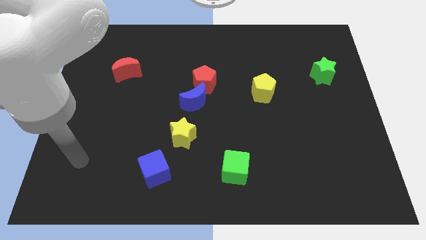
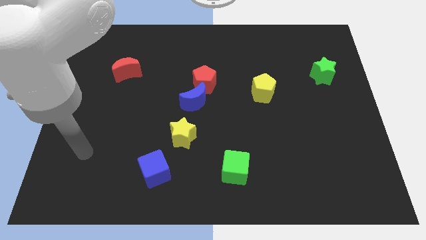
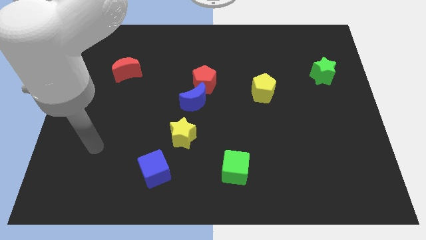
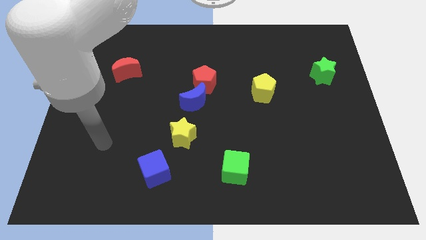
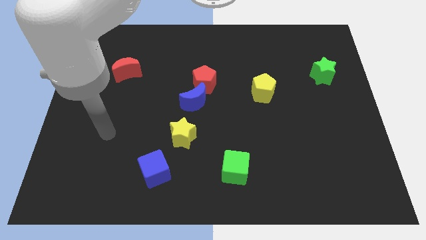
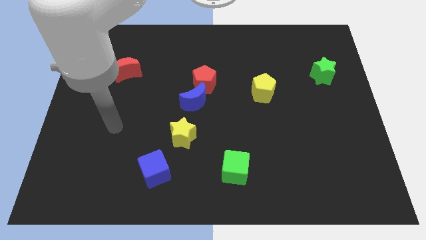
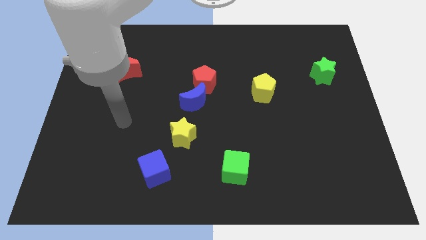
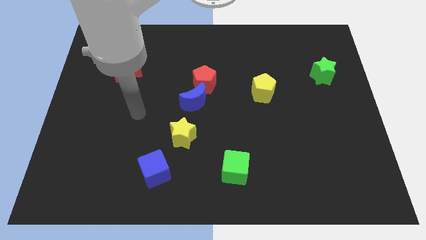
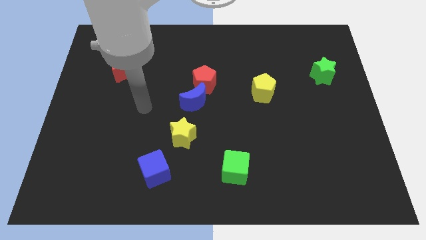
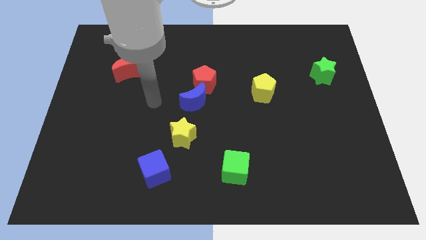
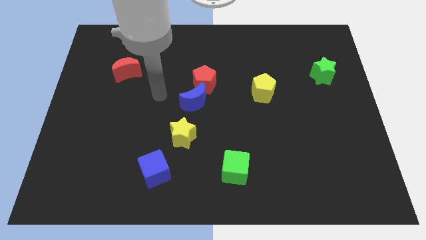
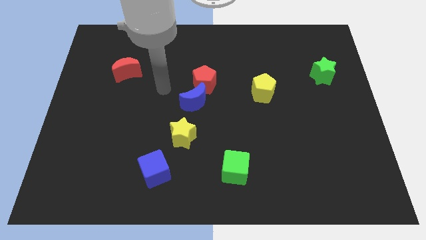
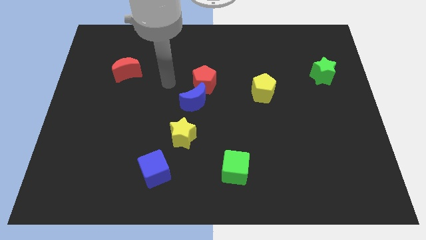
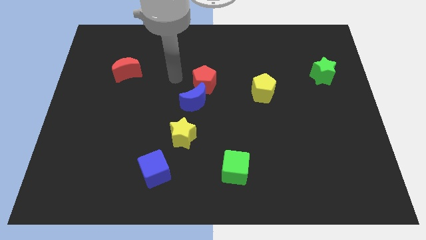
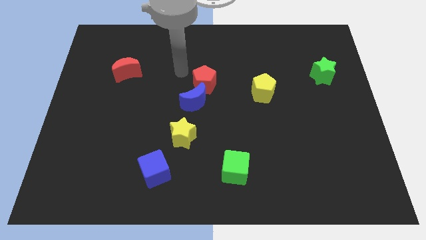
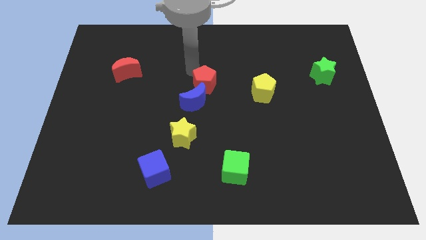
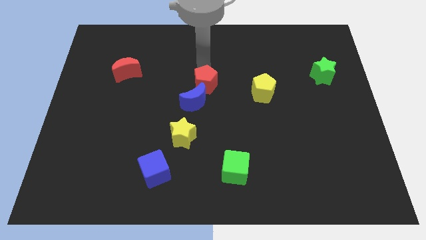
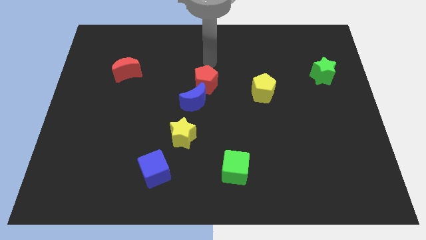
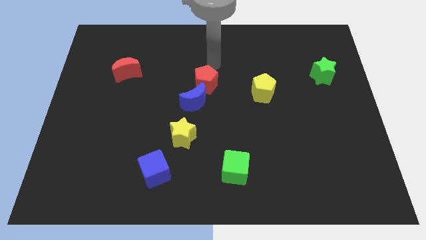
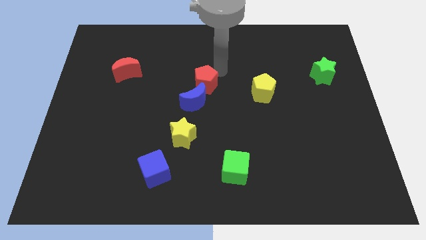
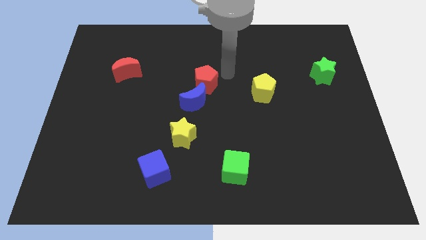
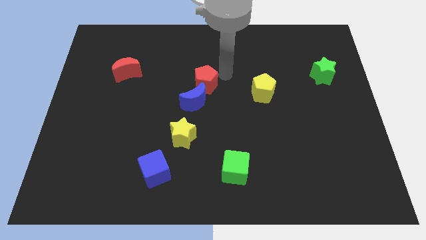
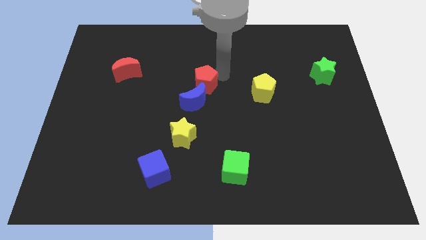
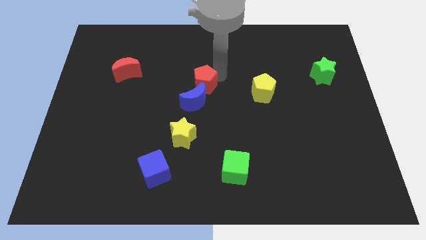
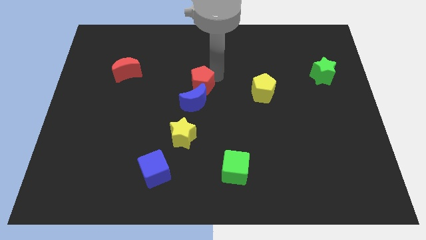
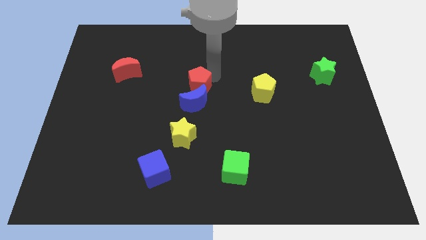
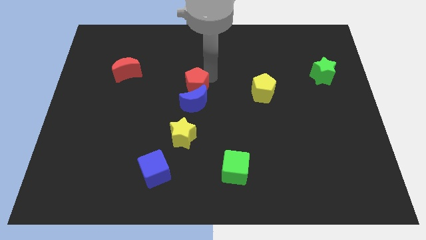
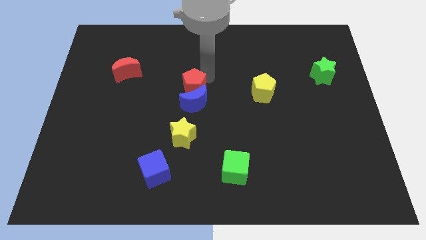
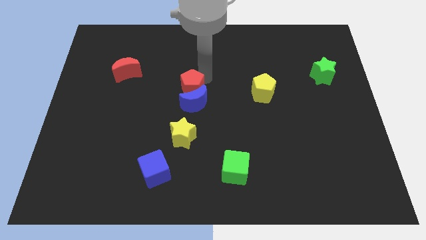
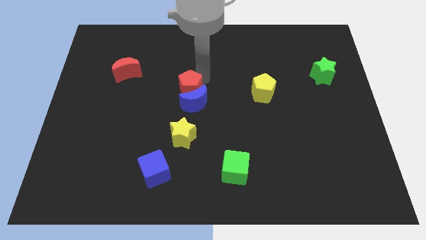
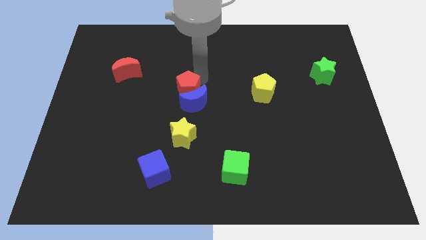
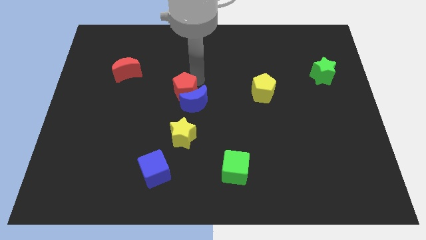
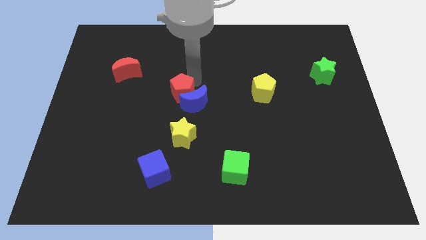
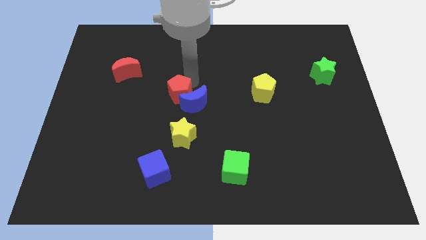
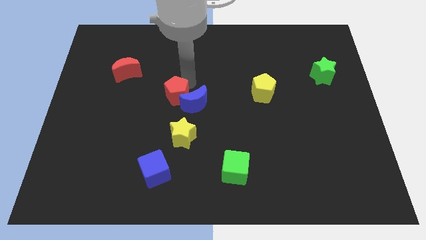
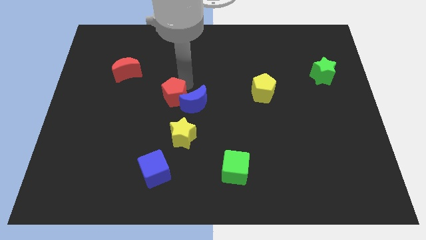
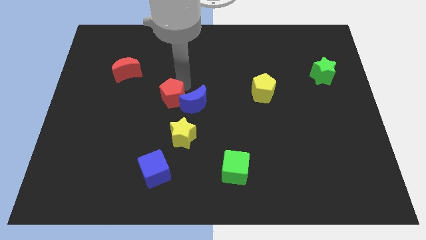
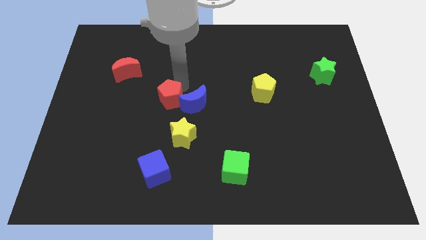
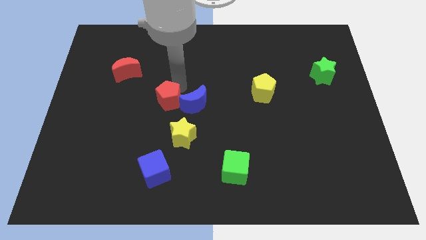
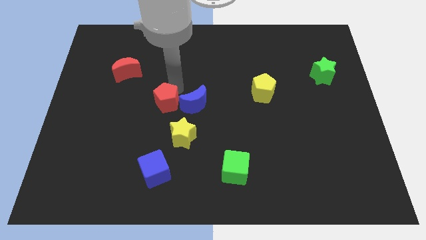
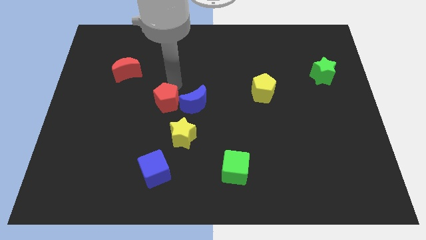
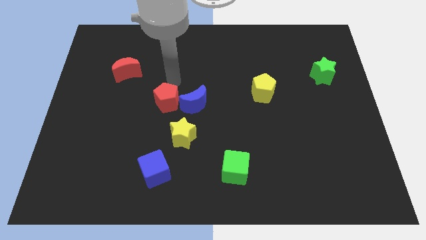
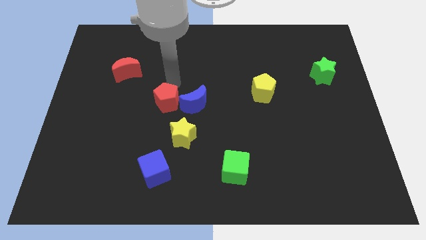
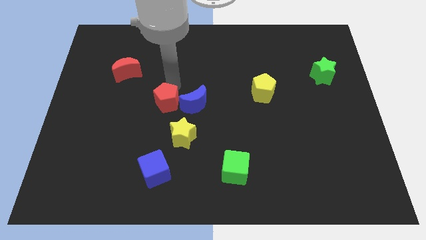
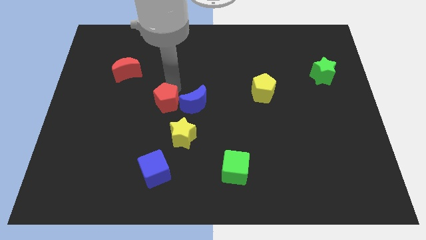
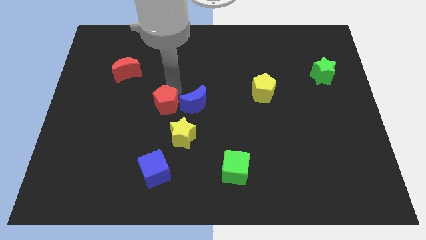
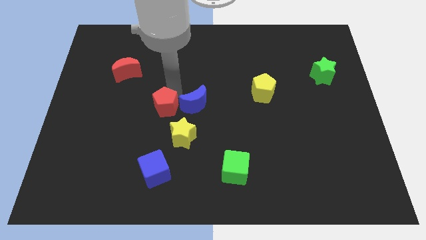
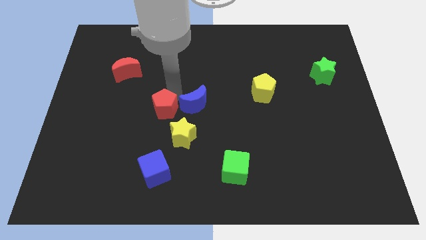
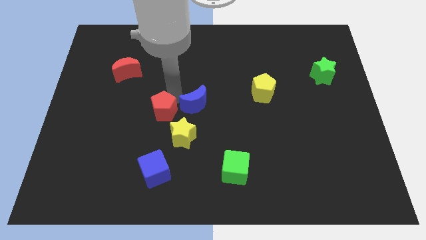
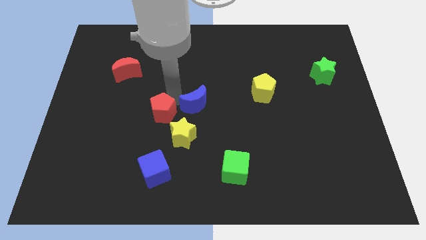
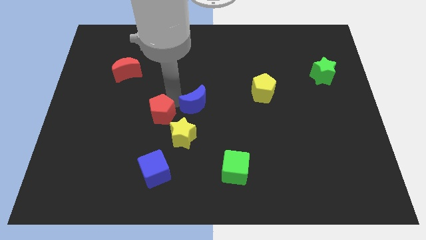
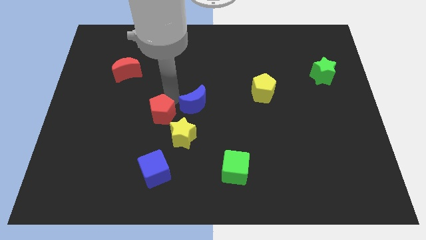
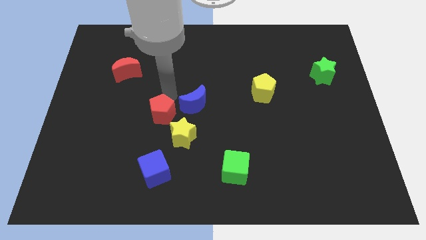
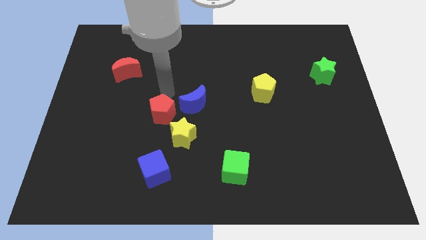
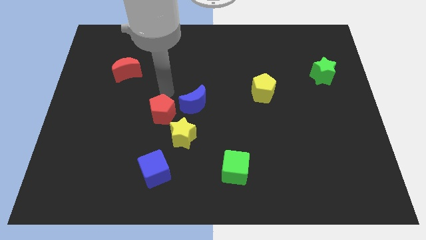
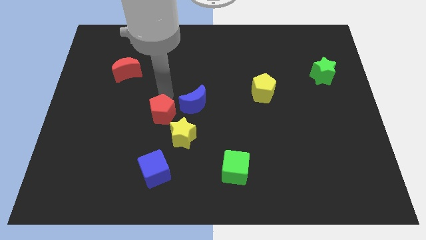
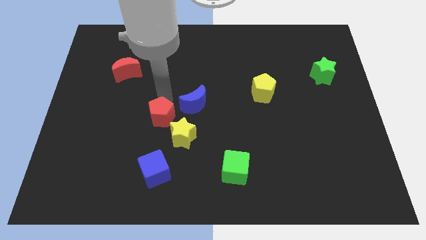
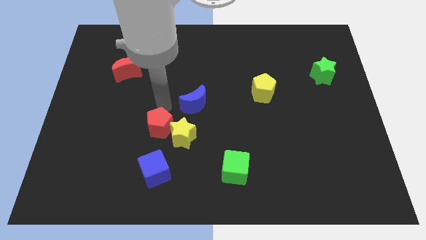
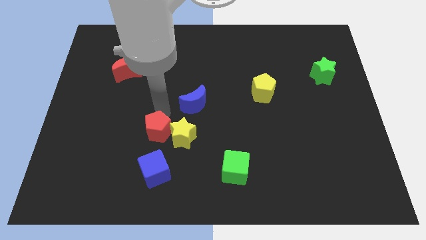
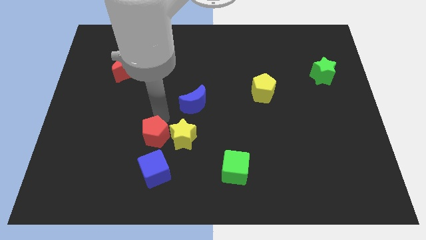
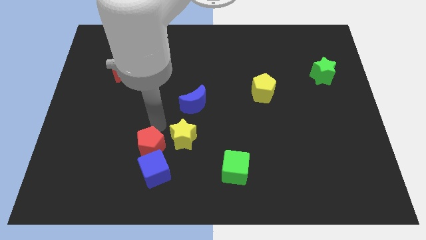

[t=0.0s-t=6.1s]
slide the red pentagon towards the blue cube

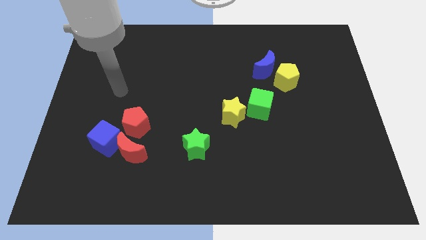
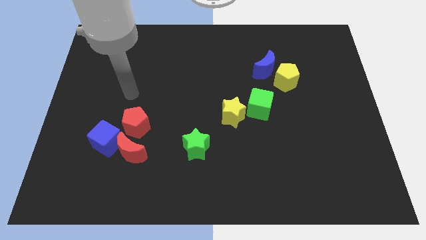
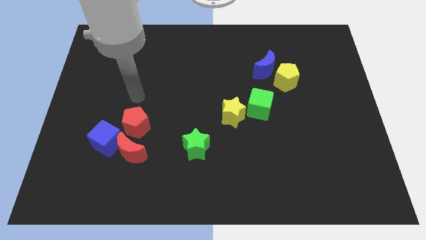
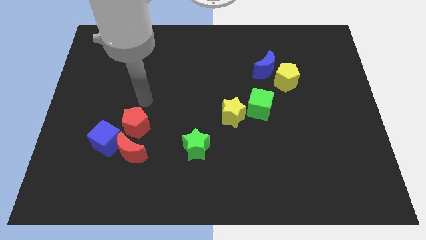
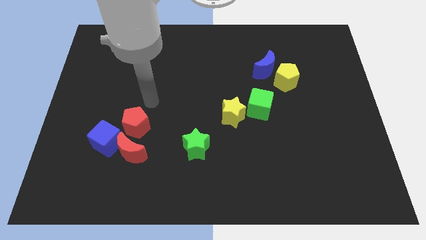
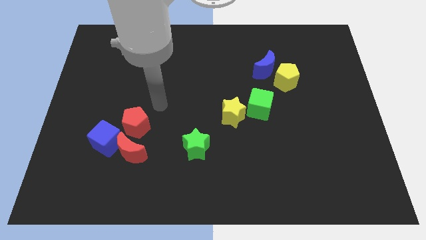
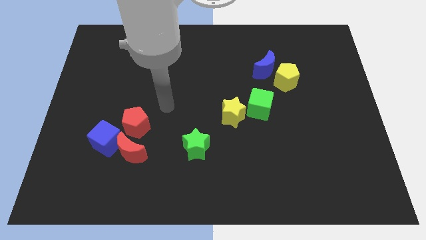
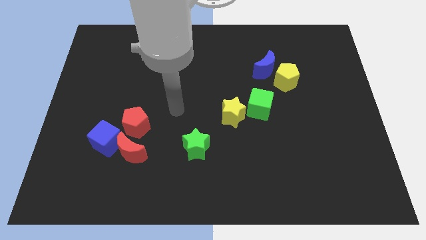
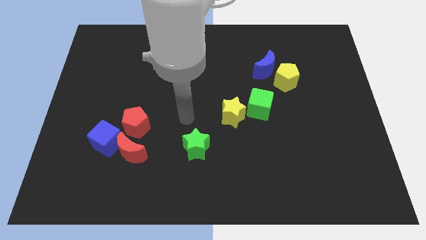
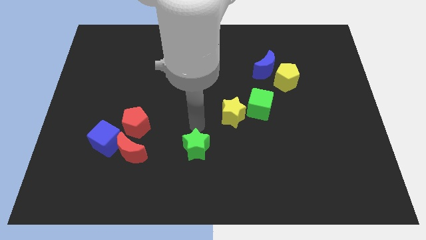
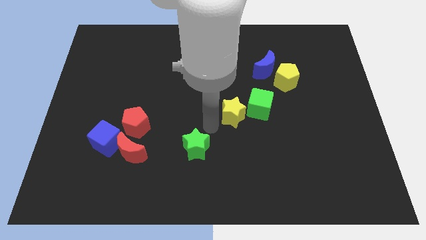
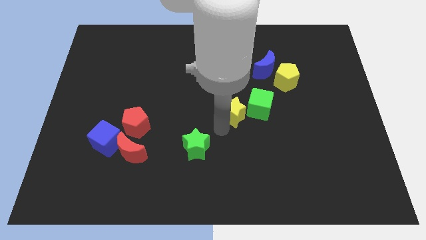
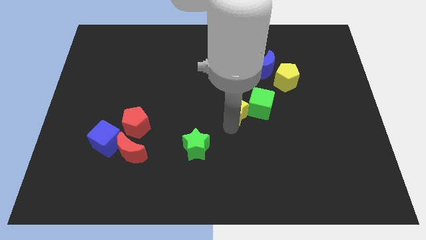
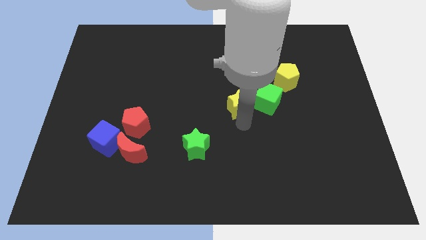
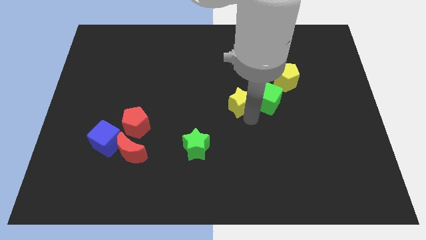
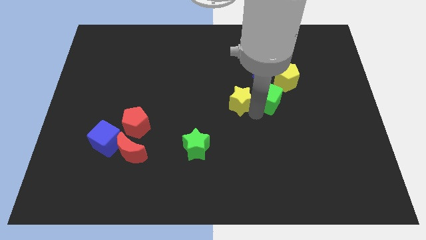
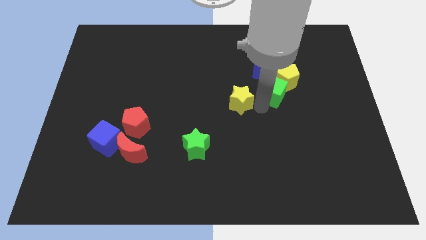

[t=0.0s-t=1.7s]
move the green cube close to the yellow pentagon
